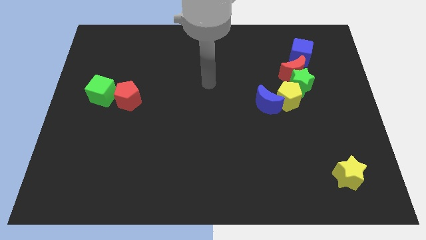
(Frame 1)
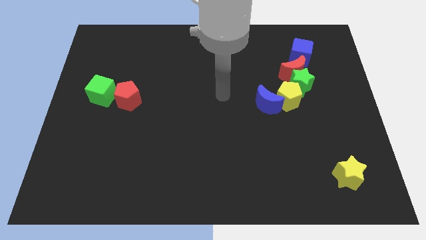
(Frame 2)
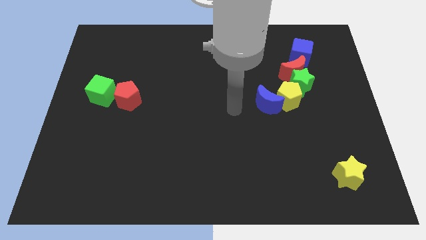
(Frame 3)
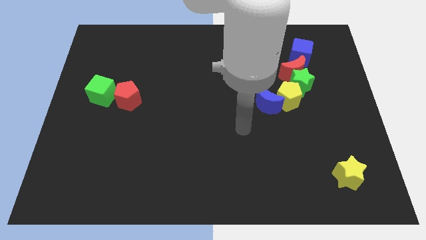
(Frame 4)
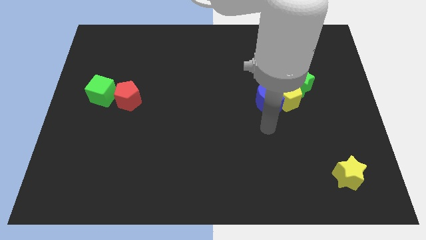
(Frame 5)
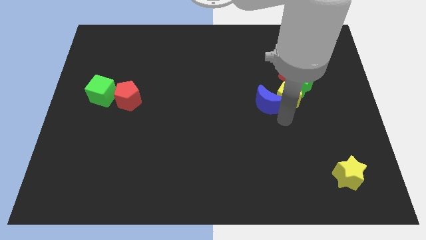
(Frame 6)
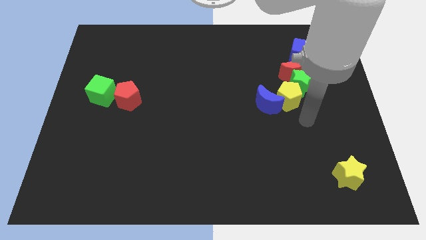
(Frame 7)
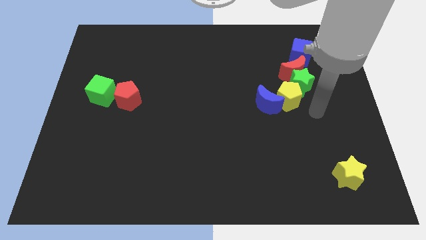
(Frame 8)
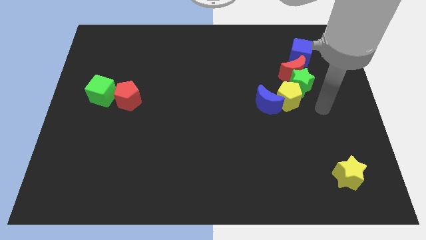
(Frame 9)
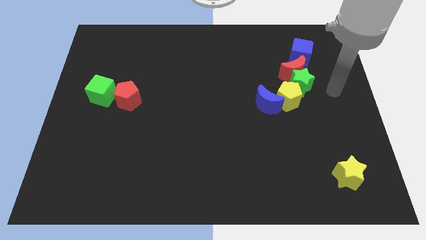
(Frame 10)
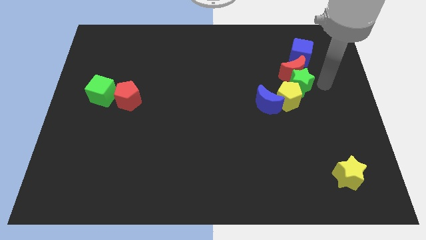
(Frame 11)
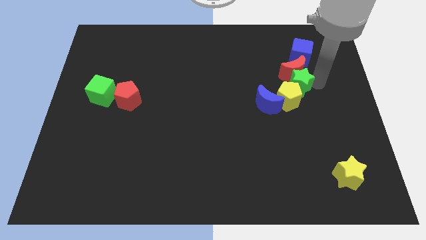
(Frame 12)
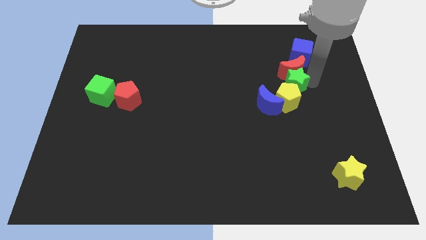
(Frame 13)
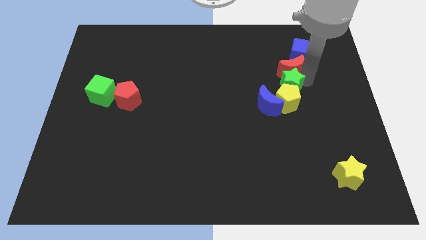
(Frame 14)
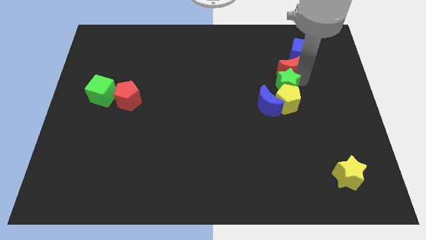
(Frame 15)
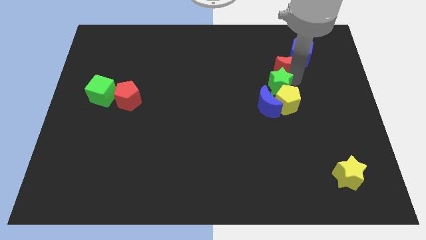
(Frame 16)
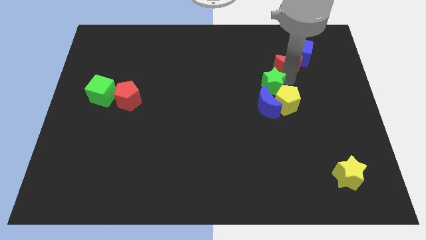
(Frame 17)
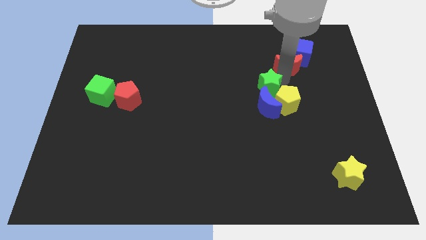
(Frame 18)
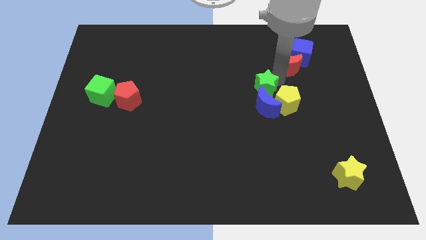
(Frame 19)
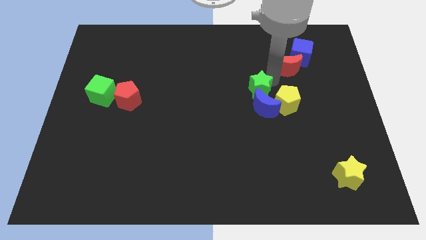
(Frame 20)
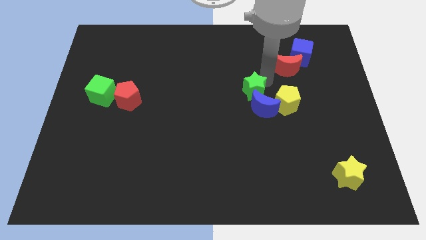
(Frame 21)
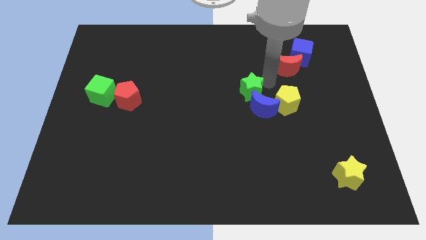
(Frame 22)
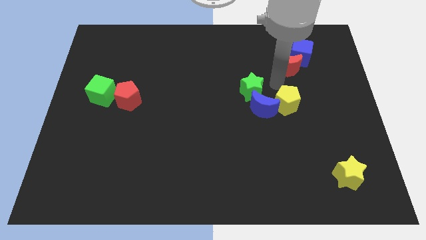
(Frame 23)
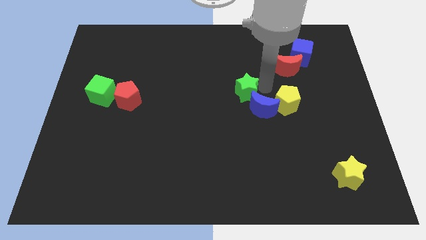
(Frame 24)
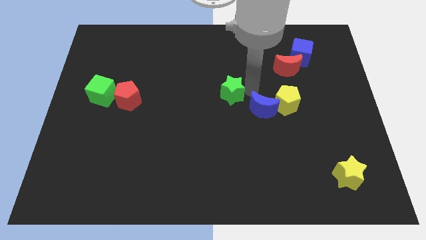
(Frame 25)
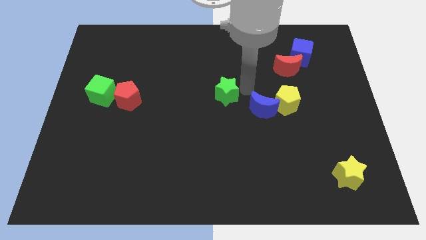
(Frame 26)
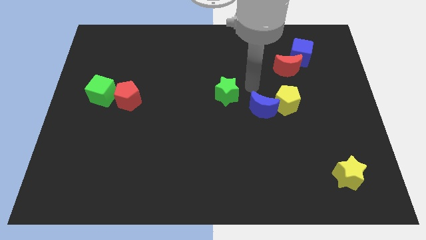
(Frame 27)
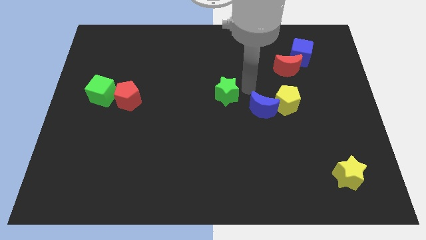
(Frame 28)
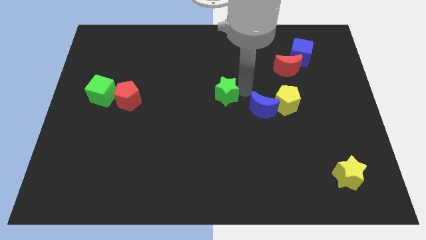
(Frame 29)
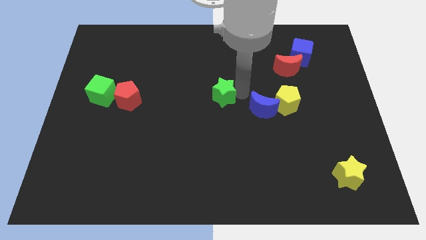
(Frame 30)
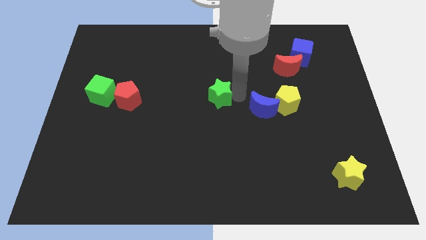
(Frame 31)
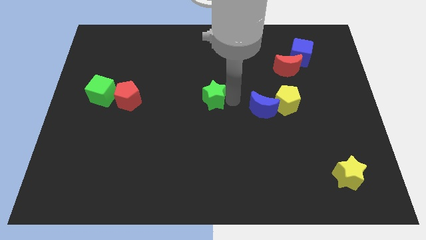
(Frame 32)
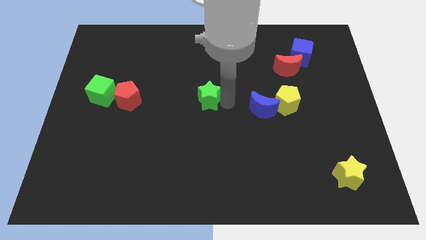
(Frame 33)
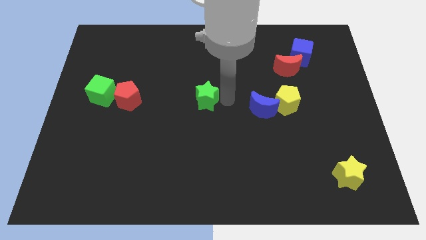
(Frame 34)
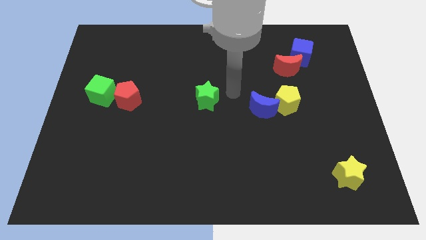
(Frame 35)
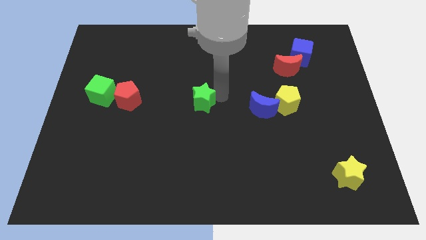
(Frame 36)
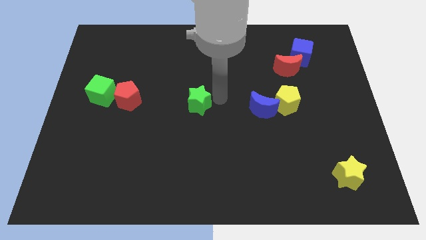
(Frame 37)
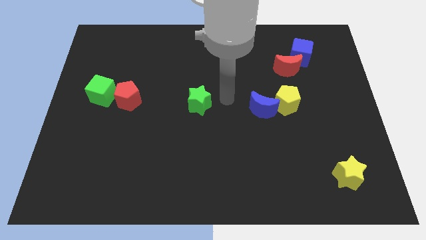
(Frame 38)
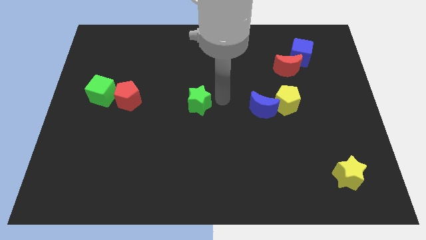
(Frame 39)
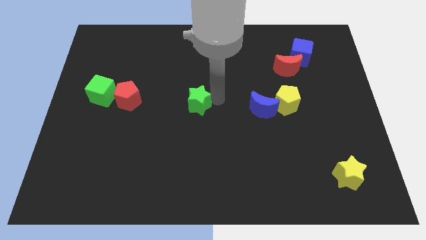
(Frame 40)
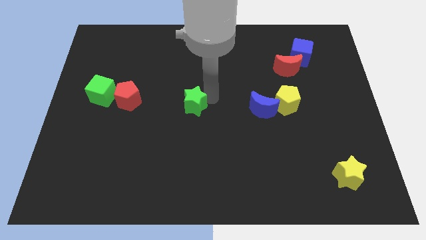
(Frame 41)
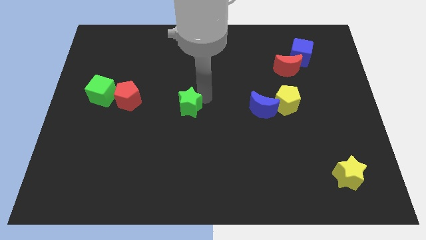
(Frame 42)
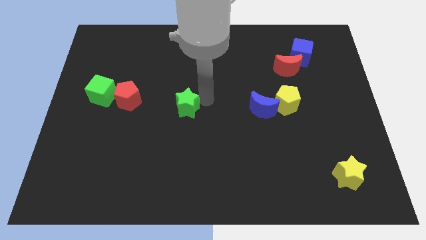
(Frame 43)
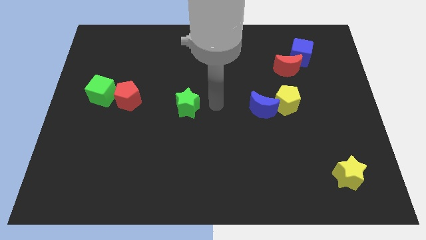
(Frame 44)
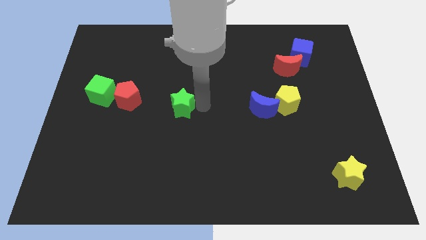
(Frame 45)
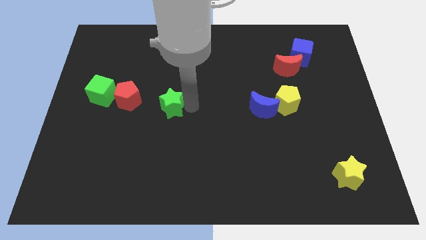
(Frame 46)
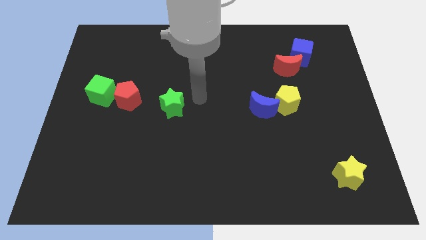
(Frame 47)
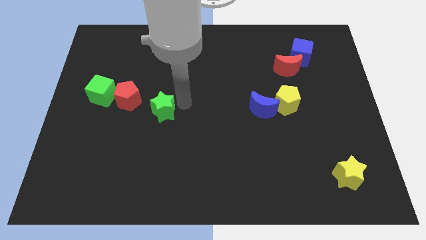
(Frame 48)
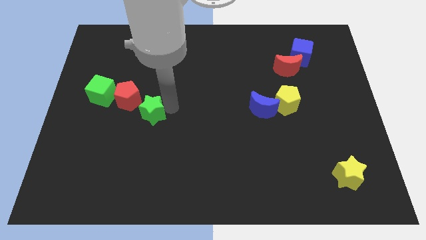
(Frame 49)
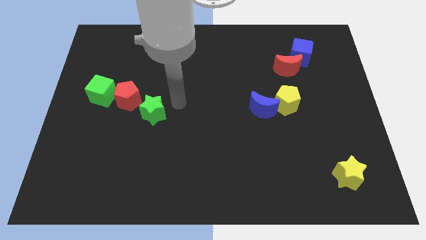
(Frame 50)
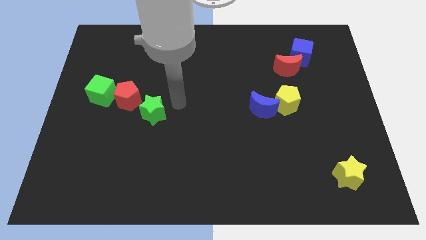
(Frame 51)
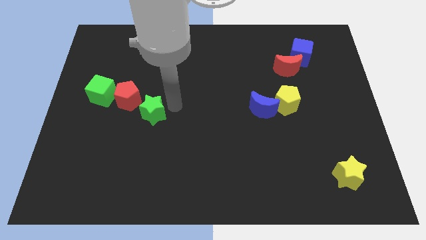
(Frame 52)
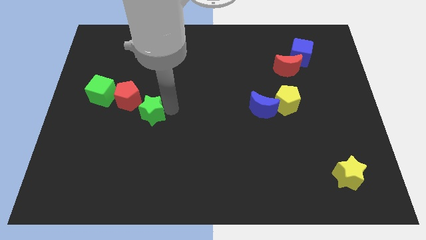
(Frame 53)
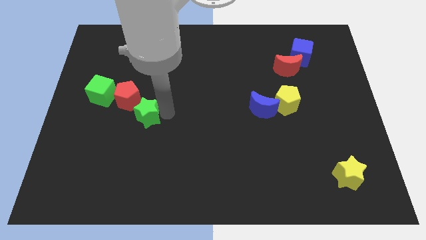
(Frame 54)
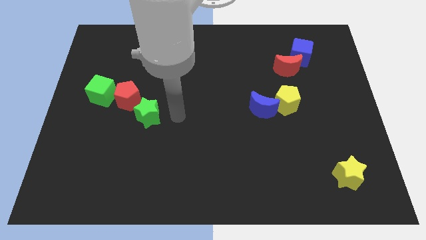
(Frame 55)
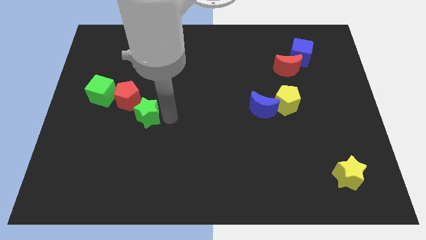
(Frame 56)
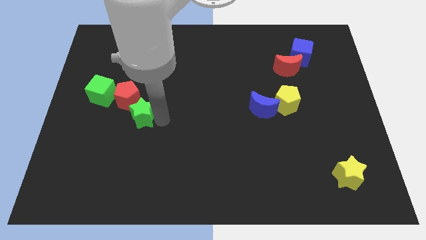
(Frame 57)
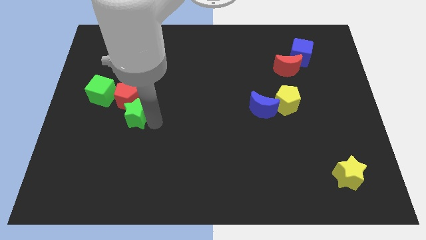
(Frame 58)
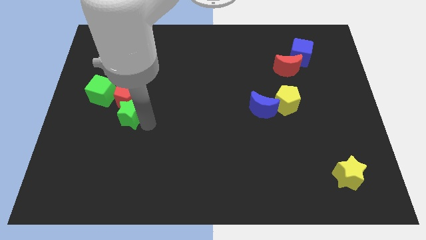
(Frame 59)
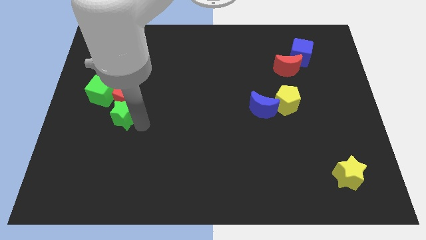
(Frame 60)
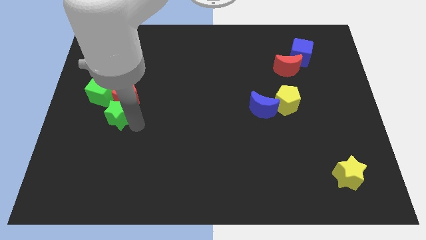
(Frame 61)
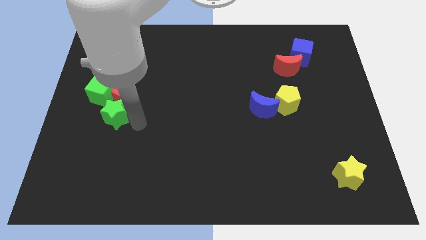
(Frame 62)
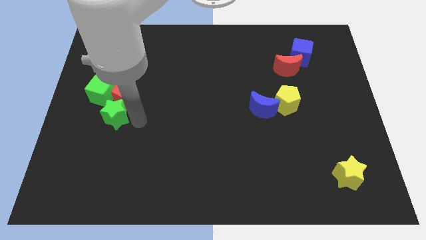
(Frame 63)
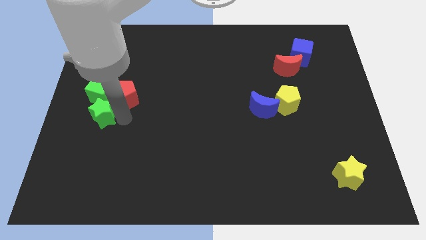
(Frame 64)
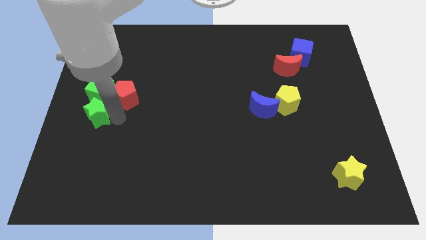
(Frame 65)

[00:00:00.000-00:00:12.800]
slide the green star to the left side of the board
